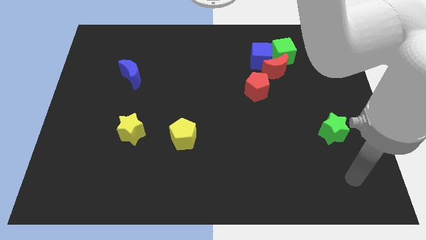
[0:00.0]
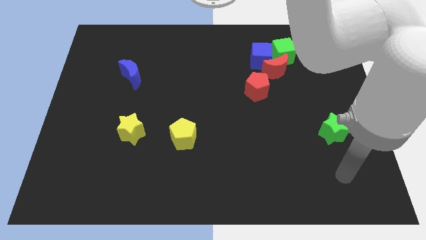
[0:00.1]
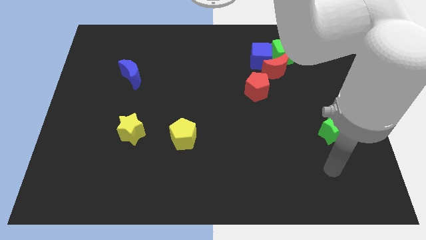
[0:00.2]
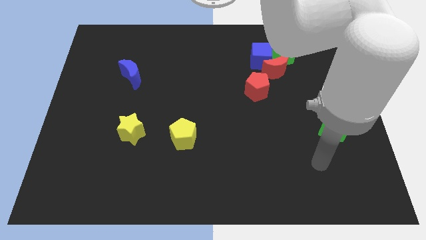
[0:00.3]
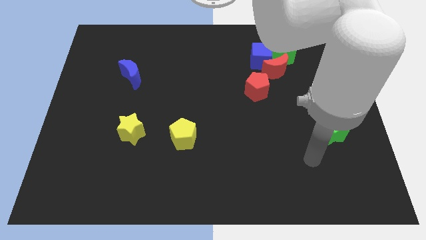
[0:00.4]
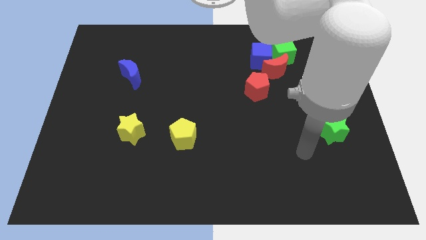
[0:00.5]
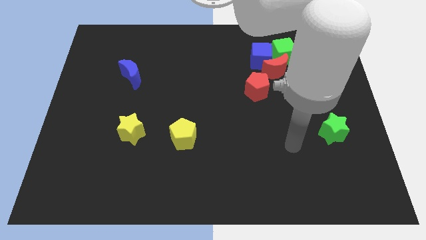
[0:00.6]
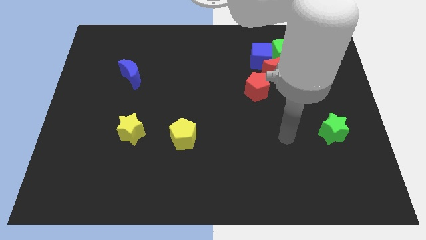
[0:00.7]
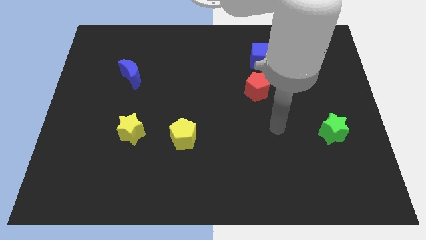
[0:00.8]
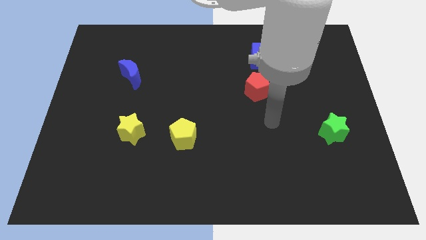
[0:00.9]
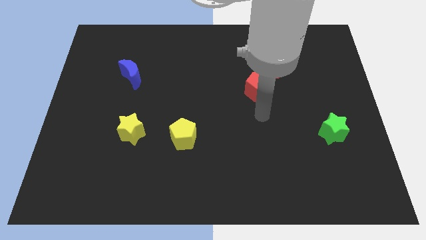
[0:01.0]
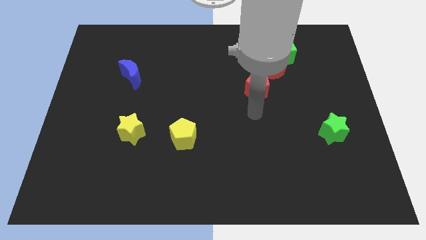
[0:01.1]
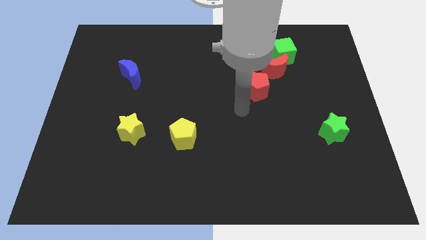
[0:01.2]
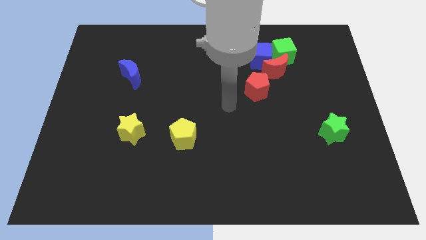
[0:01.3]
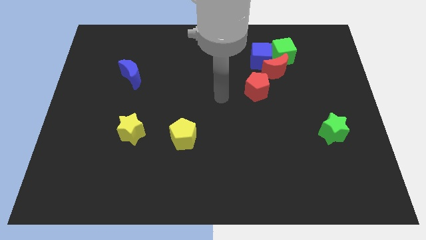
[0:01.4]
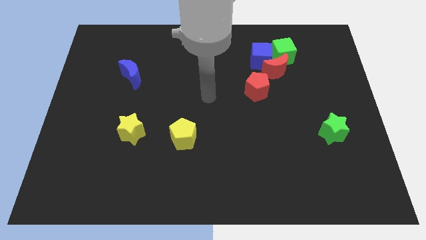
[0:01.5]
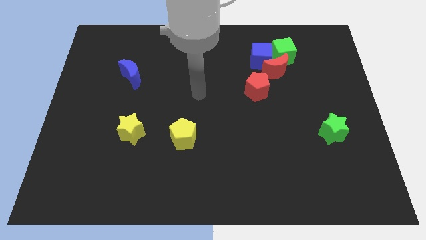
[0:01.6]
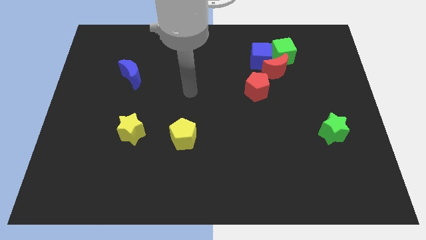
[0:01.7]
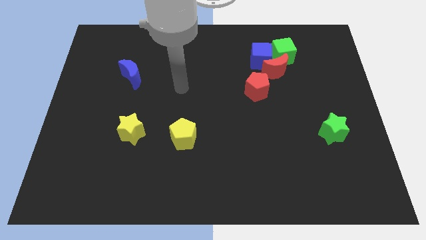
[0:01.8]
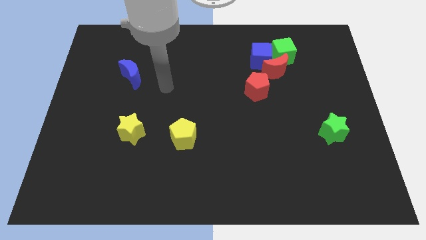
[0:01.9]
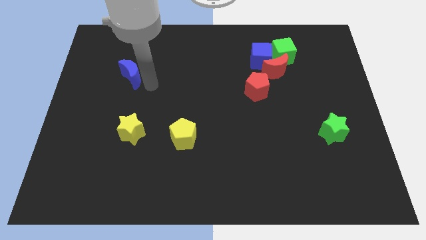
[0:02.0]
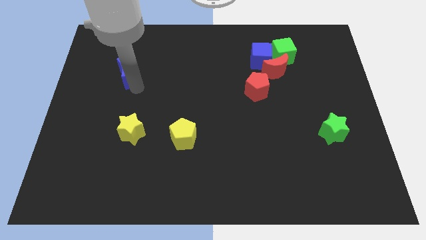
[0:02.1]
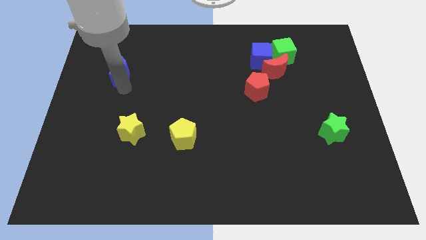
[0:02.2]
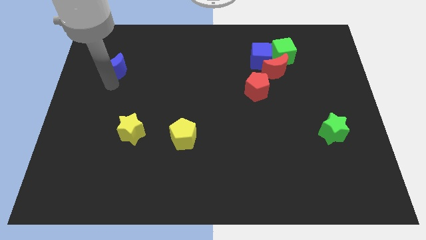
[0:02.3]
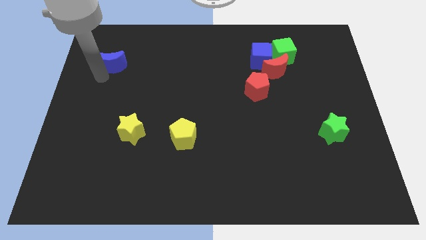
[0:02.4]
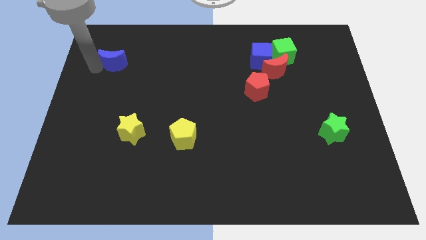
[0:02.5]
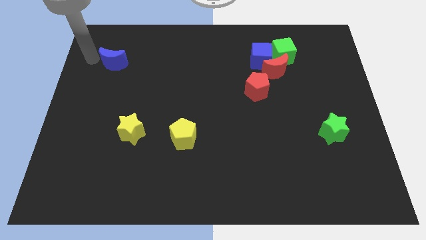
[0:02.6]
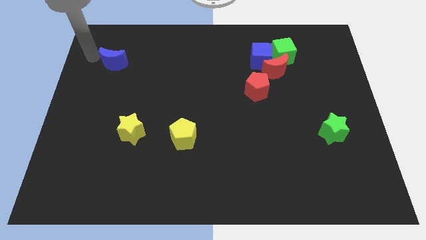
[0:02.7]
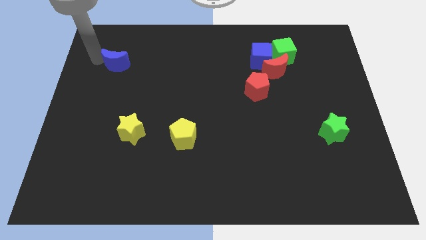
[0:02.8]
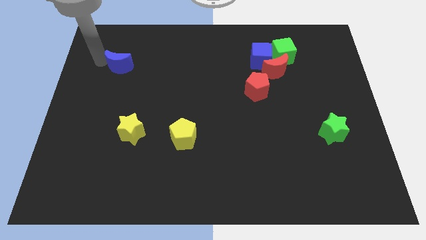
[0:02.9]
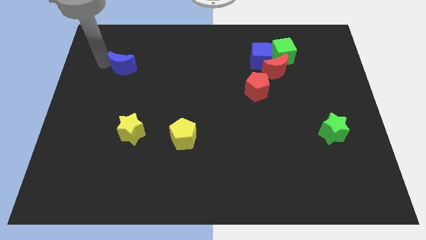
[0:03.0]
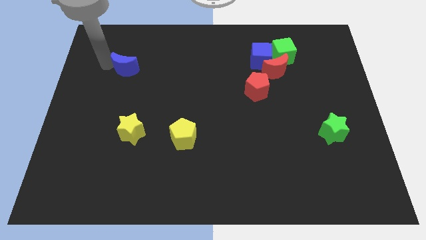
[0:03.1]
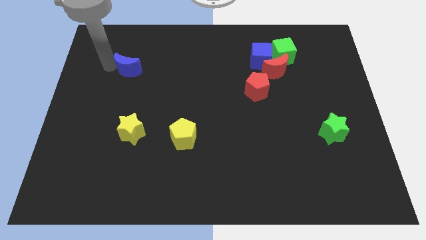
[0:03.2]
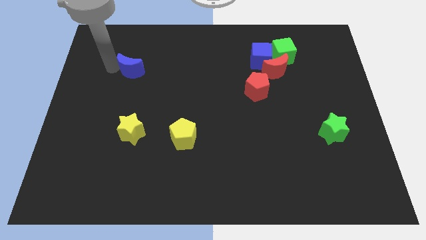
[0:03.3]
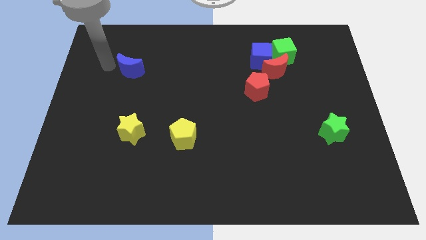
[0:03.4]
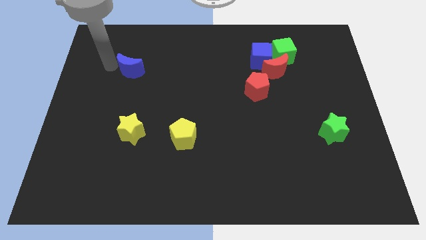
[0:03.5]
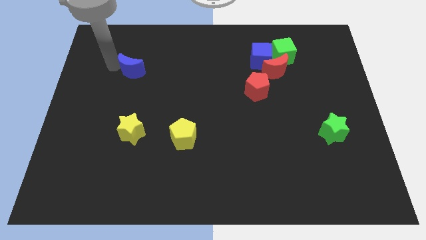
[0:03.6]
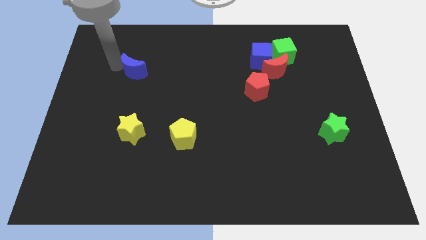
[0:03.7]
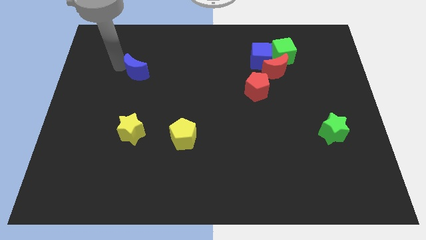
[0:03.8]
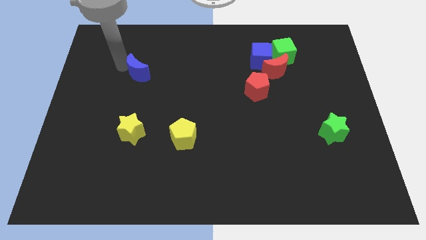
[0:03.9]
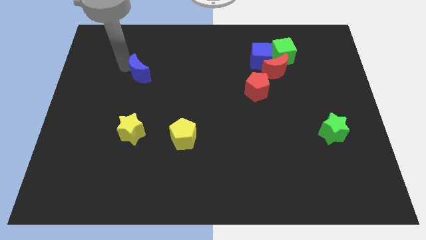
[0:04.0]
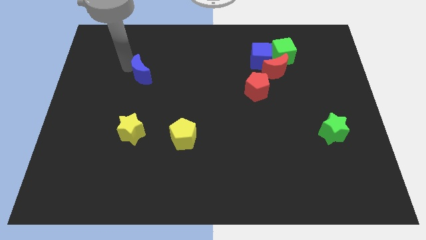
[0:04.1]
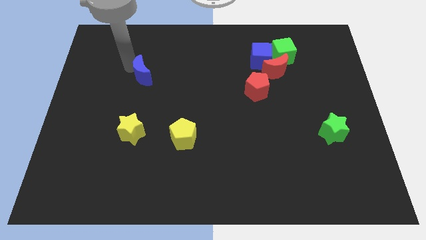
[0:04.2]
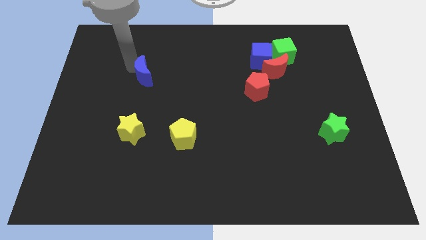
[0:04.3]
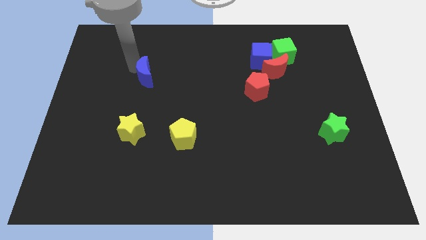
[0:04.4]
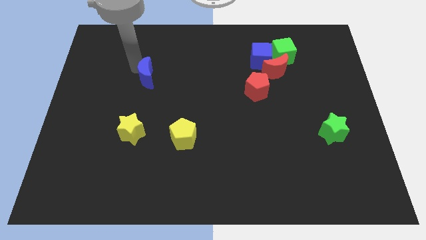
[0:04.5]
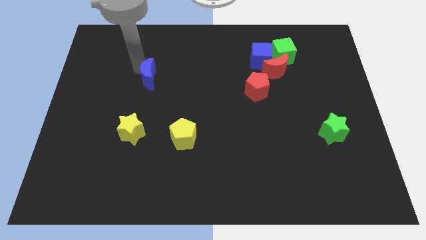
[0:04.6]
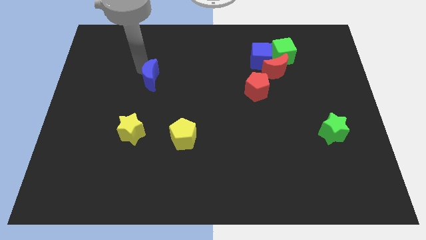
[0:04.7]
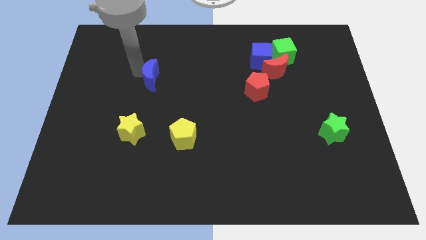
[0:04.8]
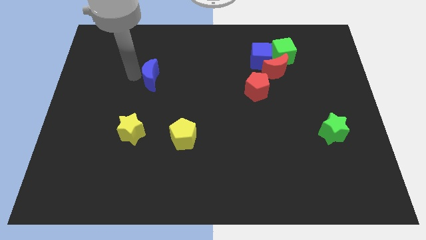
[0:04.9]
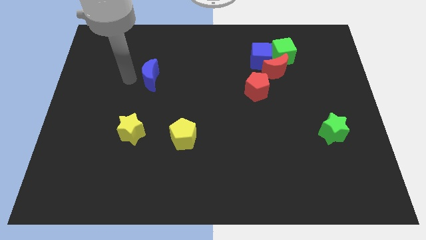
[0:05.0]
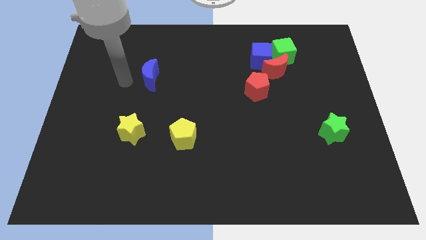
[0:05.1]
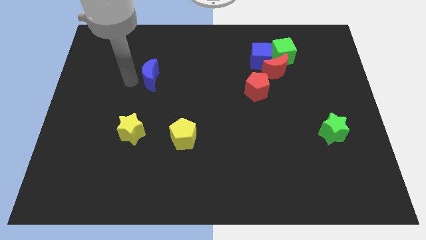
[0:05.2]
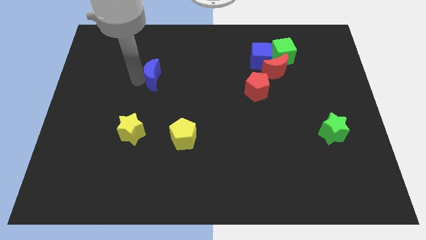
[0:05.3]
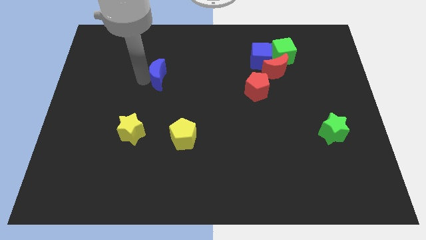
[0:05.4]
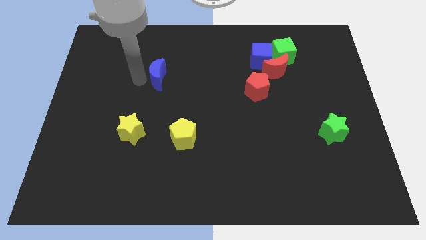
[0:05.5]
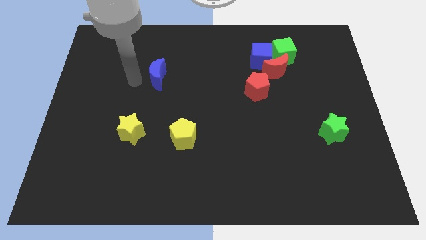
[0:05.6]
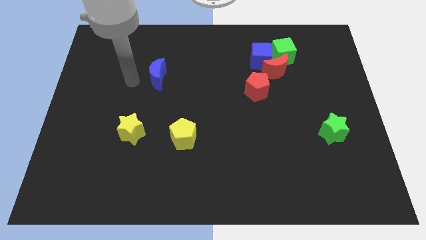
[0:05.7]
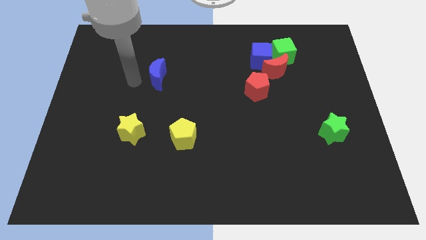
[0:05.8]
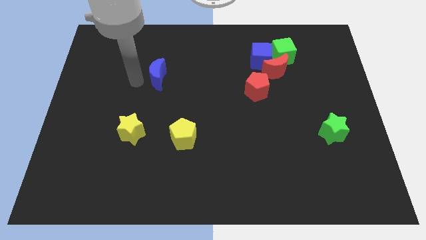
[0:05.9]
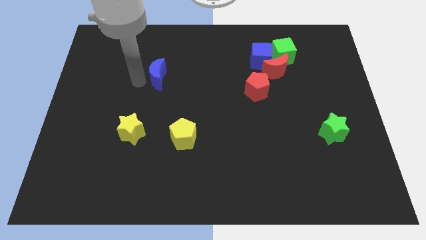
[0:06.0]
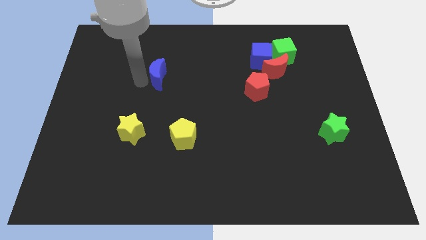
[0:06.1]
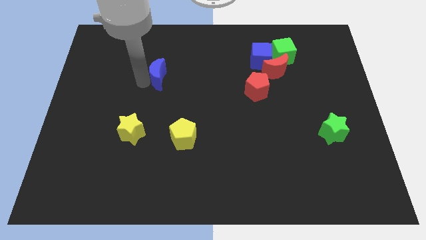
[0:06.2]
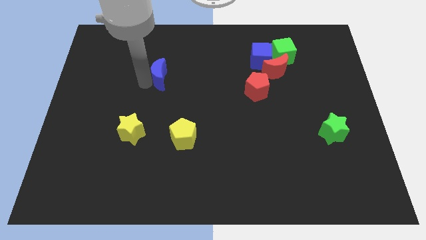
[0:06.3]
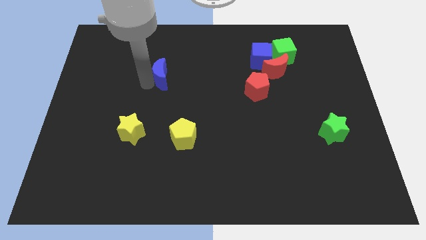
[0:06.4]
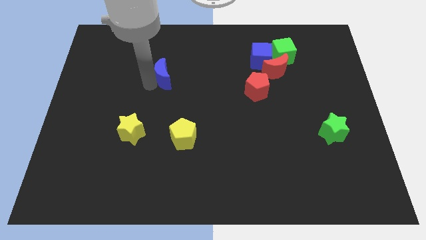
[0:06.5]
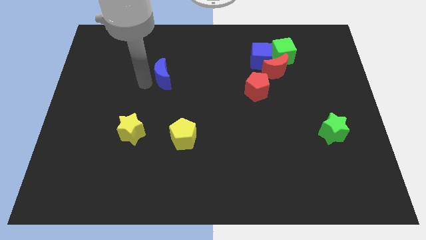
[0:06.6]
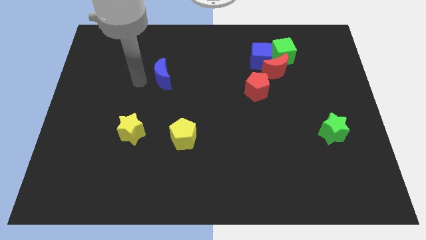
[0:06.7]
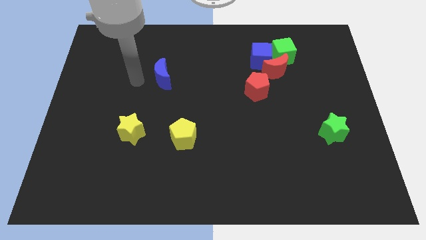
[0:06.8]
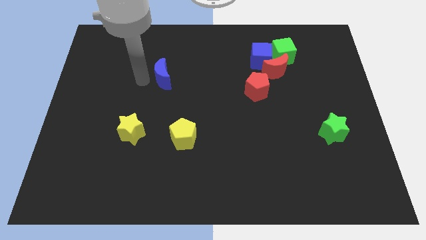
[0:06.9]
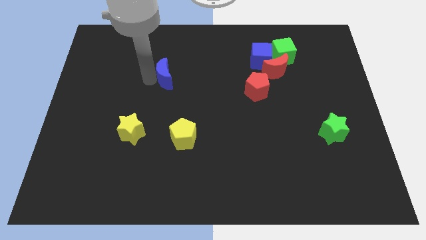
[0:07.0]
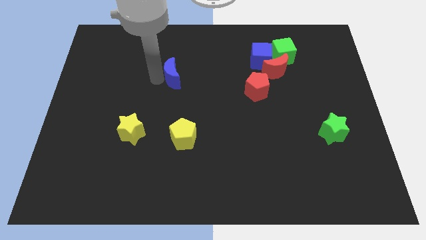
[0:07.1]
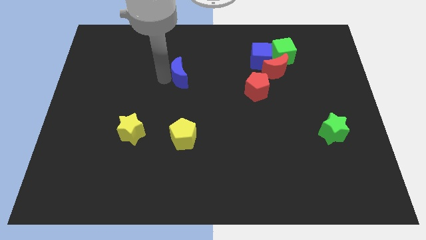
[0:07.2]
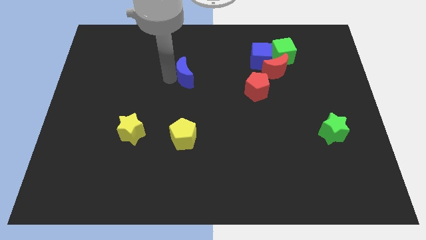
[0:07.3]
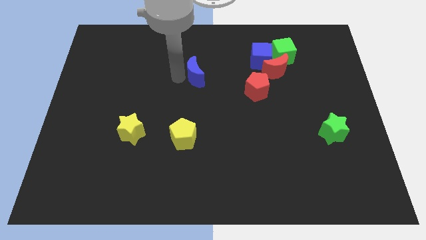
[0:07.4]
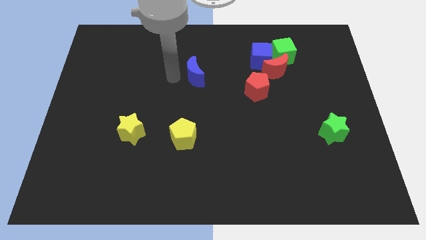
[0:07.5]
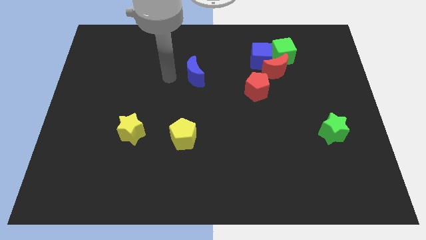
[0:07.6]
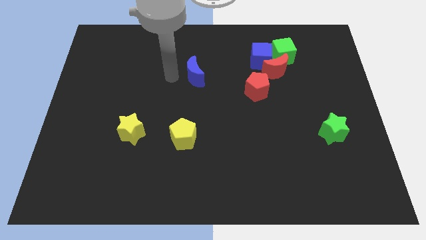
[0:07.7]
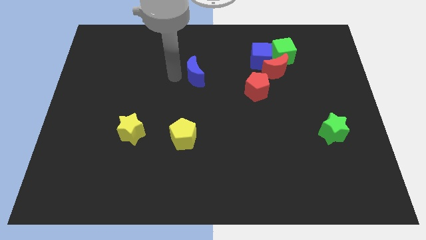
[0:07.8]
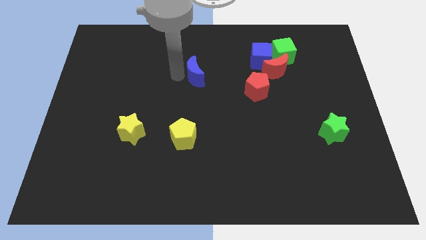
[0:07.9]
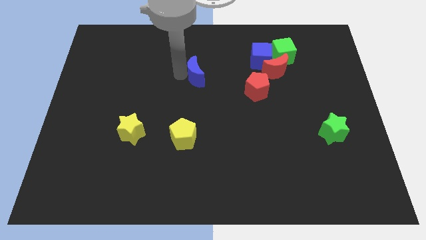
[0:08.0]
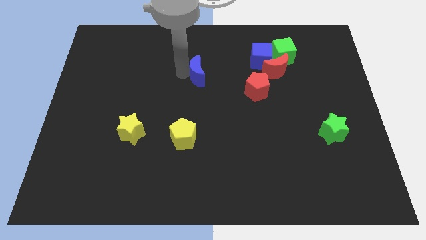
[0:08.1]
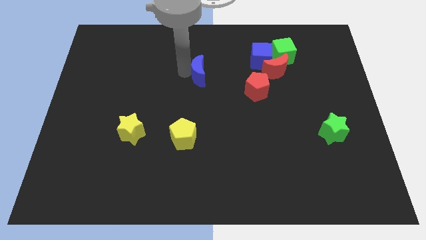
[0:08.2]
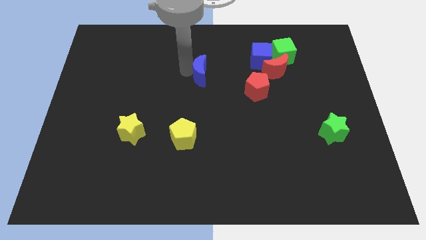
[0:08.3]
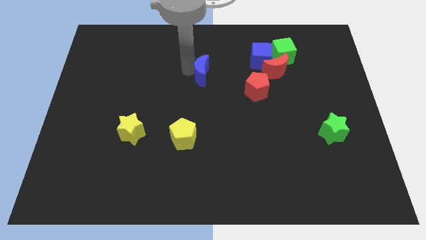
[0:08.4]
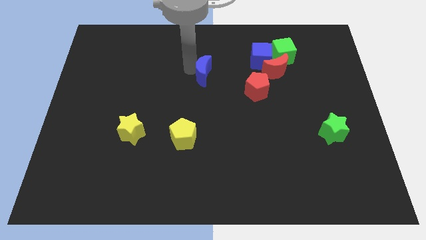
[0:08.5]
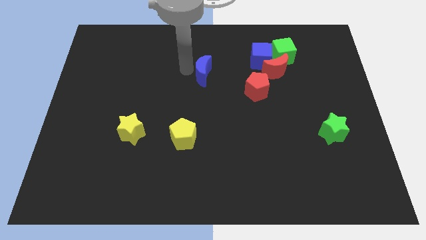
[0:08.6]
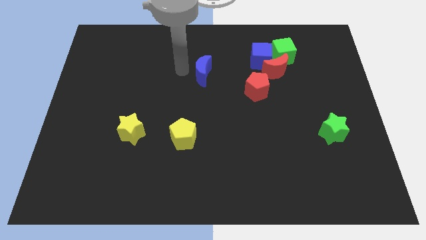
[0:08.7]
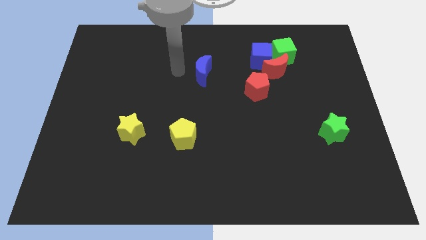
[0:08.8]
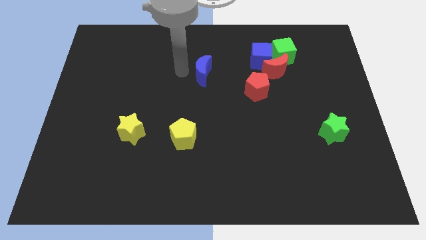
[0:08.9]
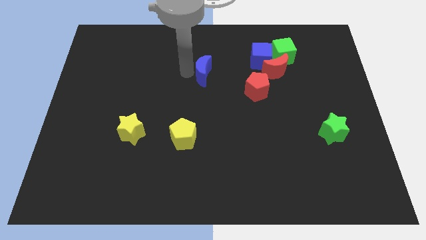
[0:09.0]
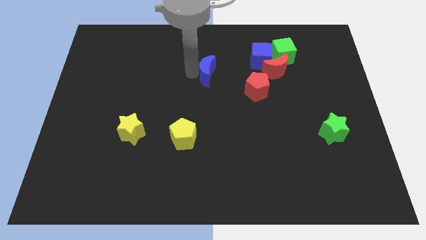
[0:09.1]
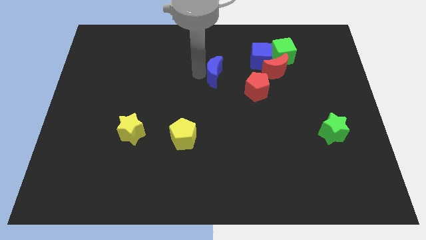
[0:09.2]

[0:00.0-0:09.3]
move the blue moon to the right
